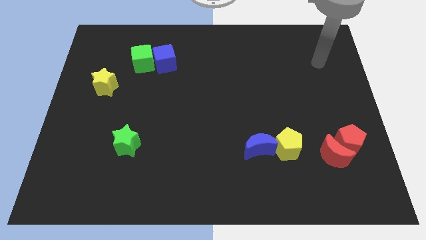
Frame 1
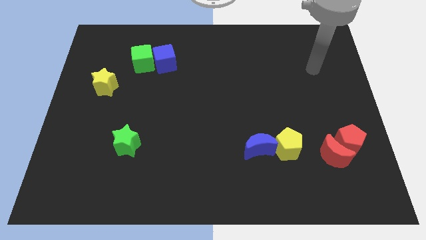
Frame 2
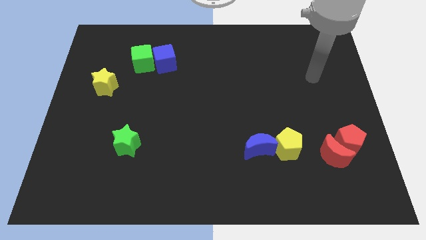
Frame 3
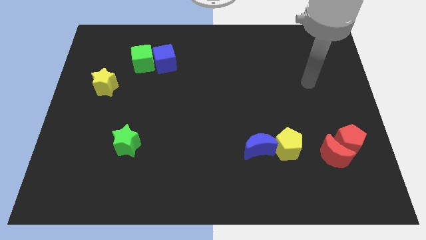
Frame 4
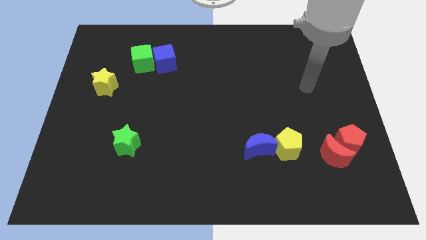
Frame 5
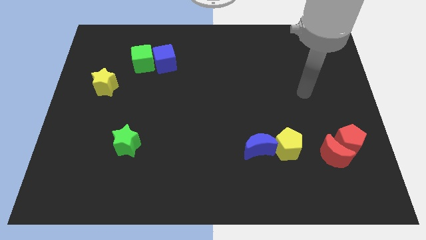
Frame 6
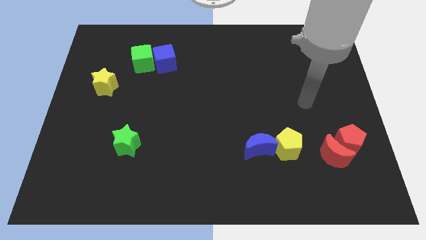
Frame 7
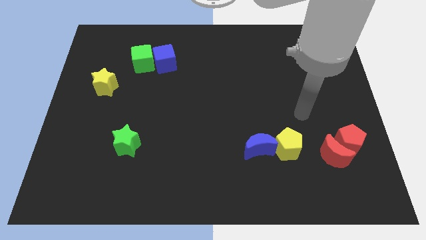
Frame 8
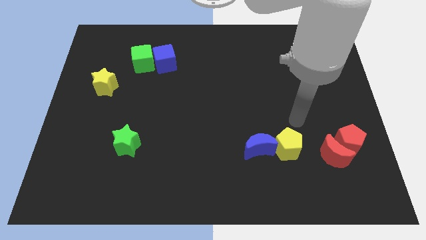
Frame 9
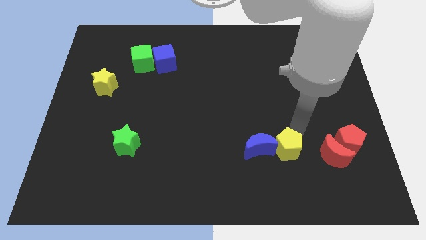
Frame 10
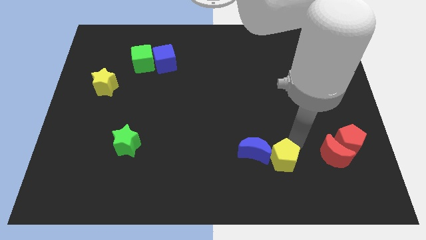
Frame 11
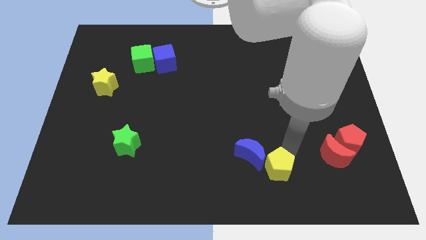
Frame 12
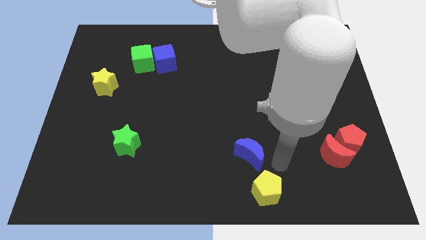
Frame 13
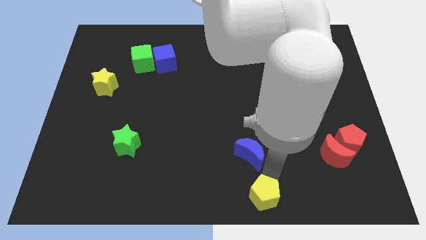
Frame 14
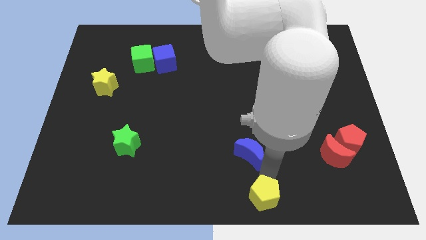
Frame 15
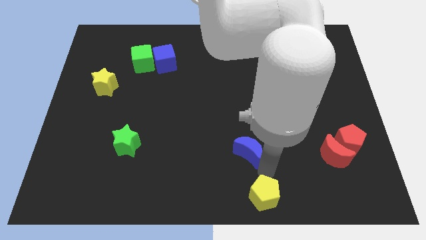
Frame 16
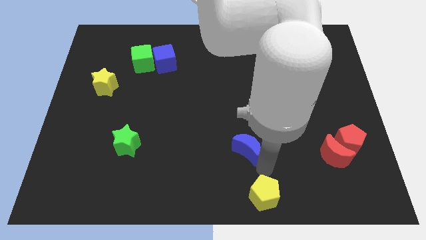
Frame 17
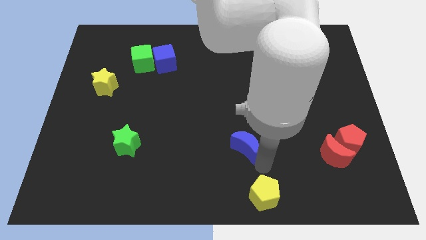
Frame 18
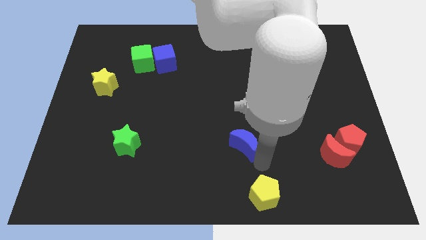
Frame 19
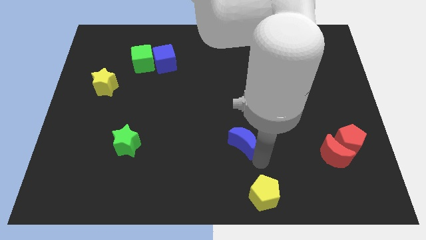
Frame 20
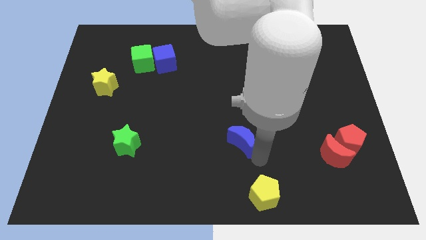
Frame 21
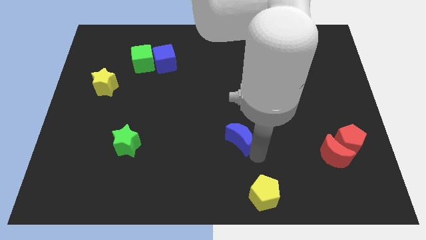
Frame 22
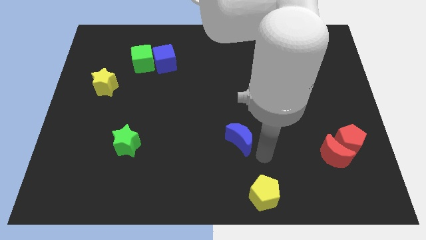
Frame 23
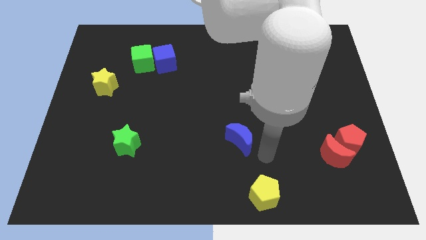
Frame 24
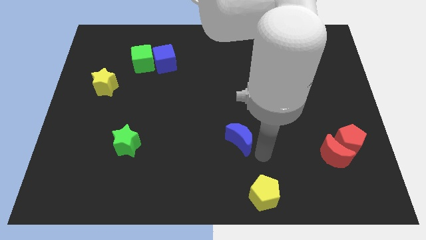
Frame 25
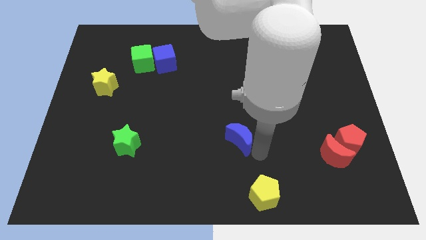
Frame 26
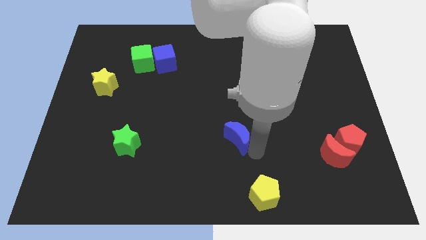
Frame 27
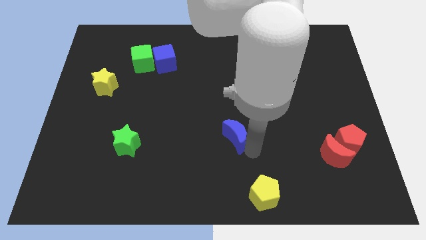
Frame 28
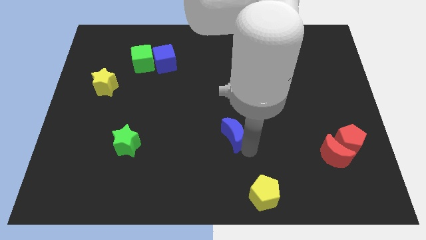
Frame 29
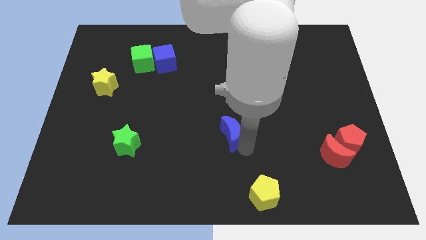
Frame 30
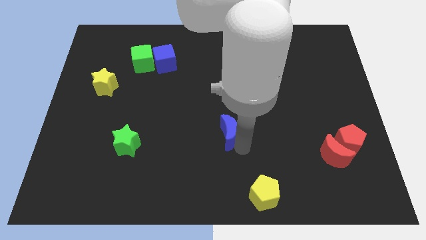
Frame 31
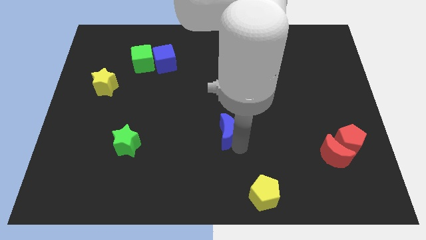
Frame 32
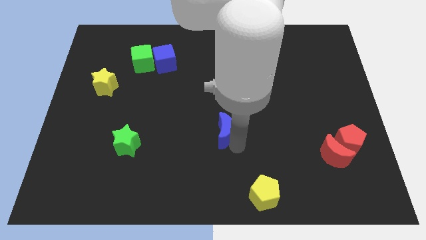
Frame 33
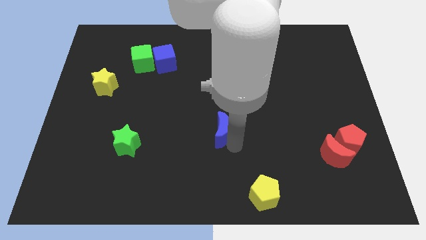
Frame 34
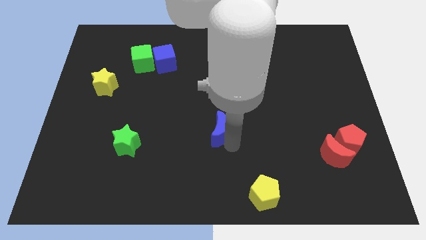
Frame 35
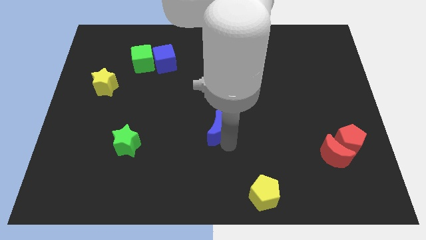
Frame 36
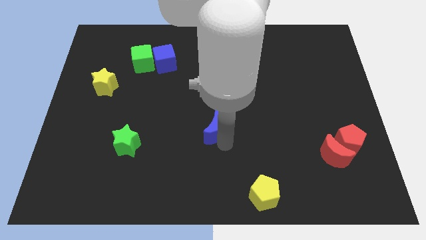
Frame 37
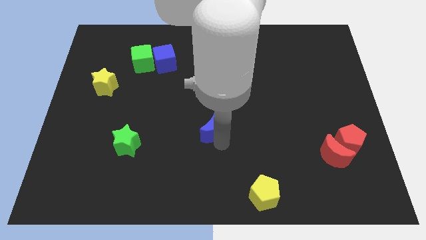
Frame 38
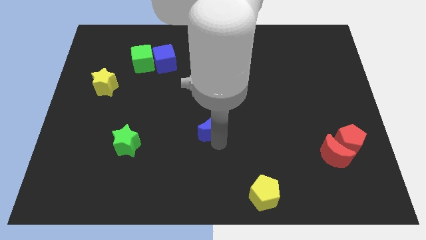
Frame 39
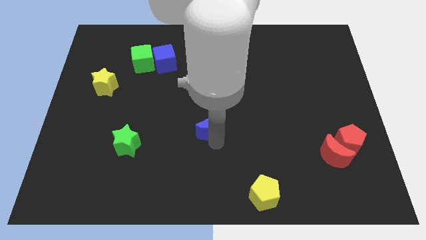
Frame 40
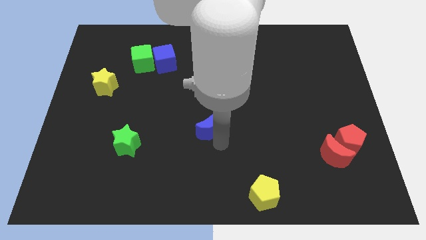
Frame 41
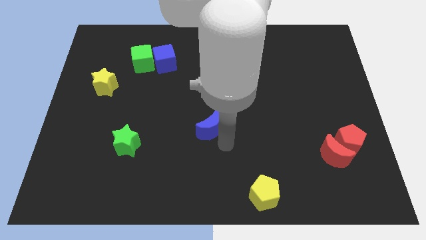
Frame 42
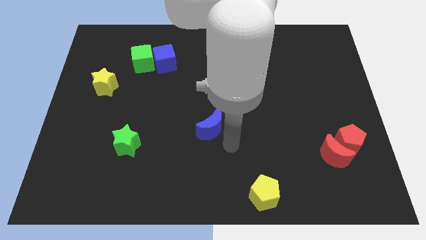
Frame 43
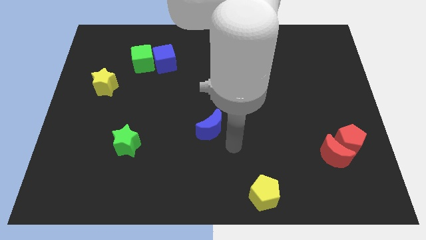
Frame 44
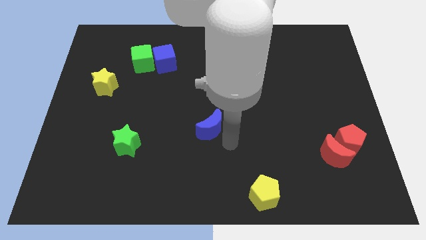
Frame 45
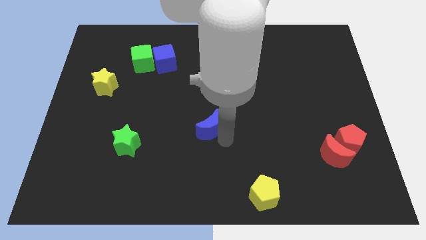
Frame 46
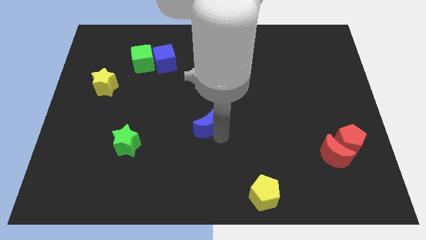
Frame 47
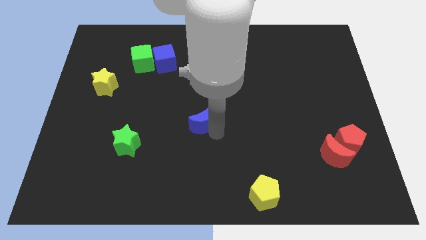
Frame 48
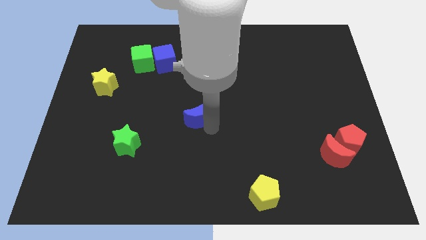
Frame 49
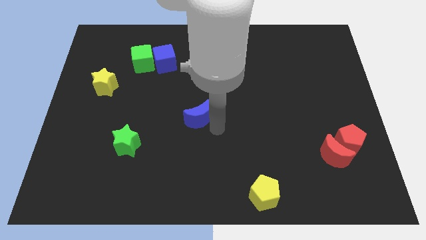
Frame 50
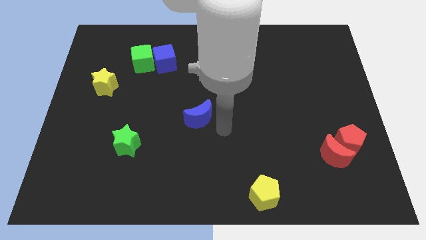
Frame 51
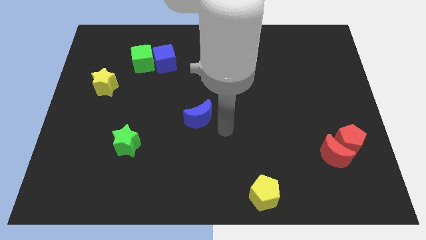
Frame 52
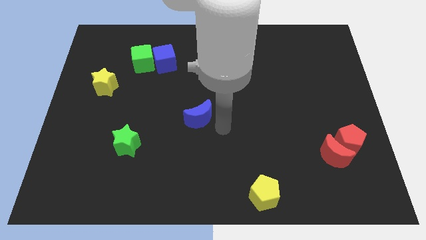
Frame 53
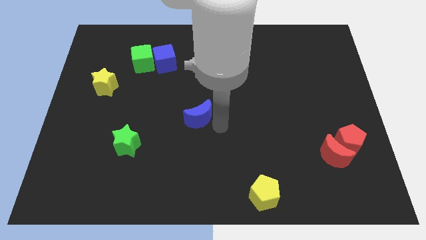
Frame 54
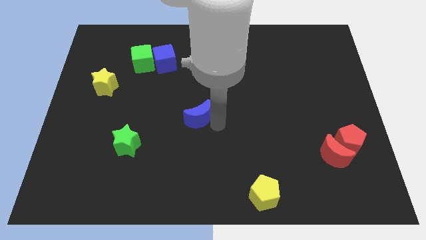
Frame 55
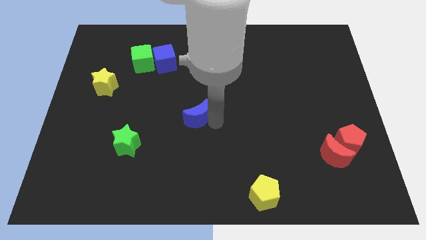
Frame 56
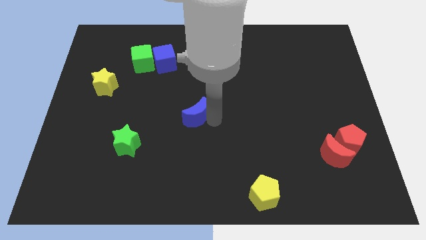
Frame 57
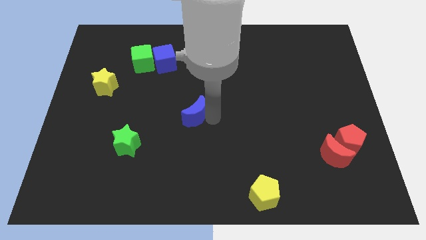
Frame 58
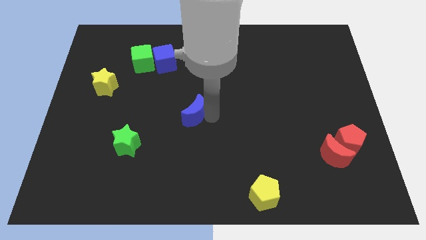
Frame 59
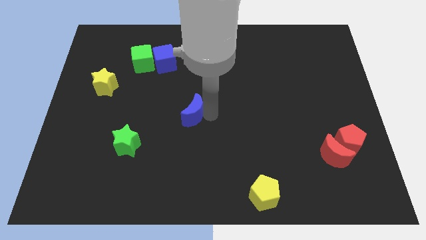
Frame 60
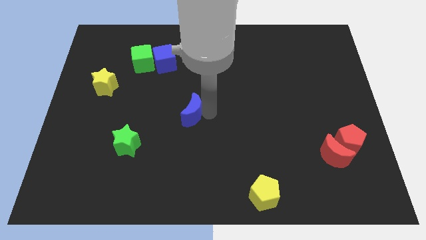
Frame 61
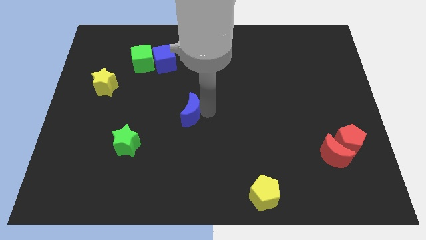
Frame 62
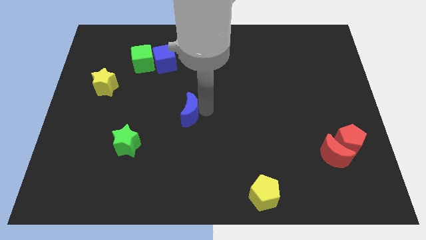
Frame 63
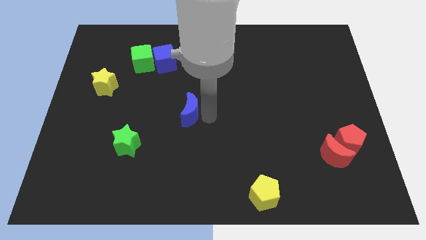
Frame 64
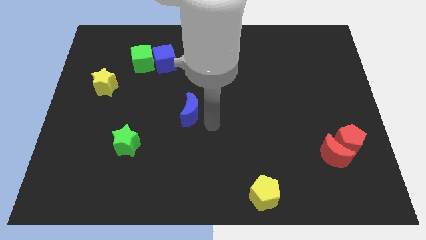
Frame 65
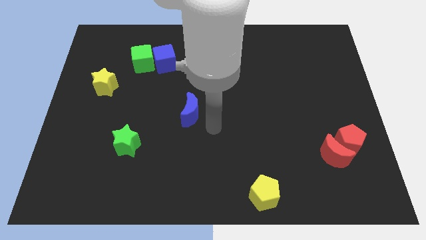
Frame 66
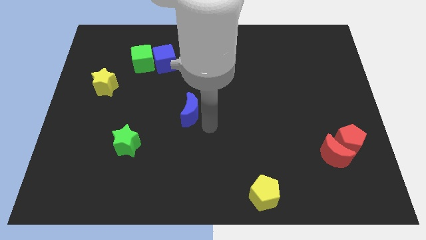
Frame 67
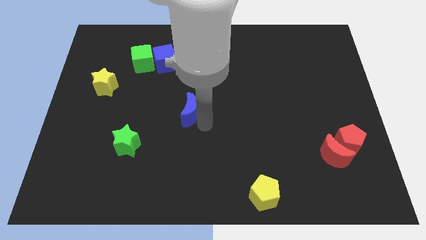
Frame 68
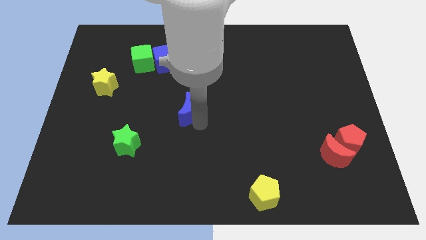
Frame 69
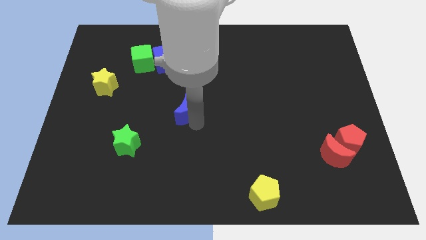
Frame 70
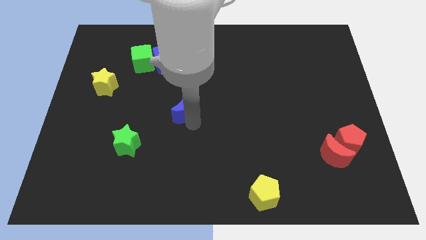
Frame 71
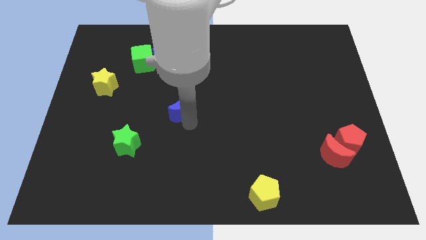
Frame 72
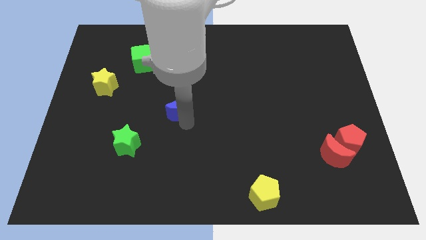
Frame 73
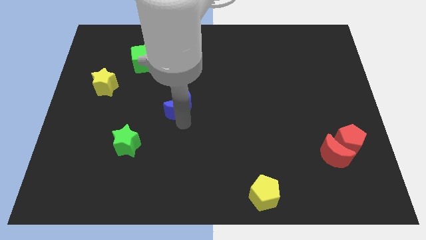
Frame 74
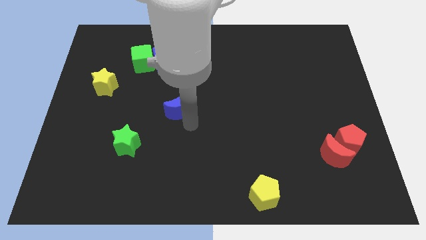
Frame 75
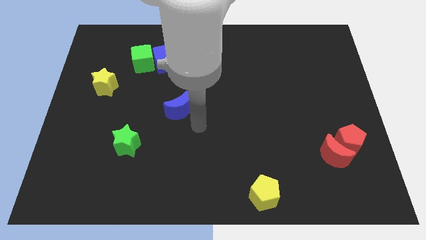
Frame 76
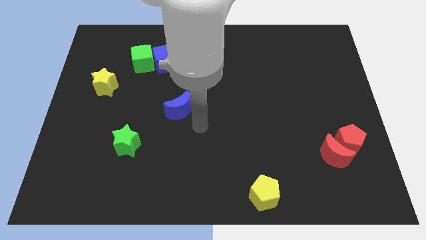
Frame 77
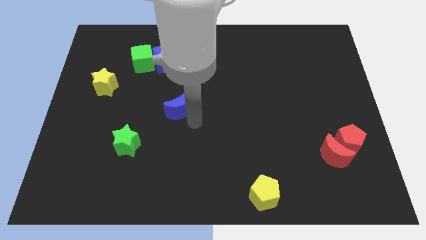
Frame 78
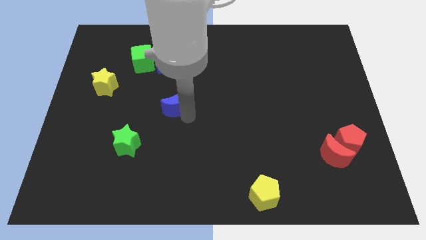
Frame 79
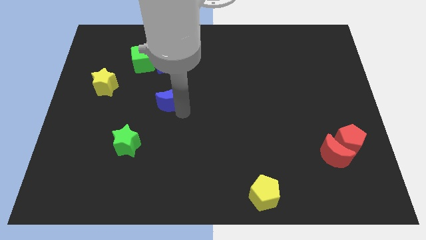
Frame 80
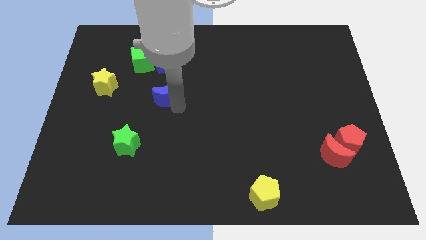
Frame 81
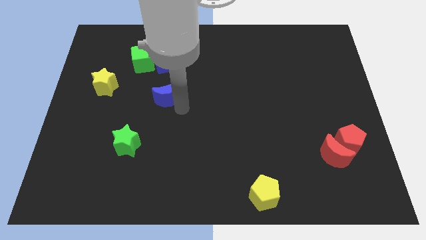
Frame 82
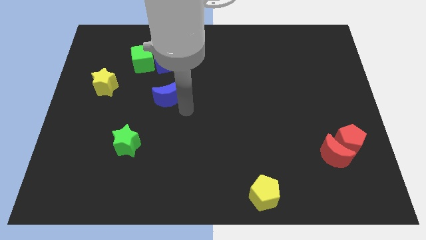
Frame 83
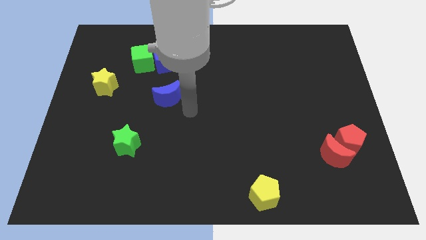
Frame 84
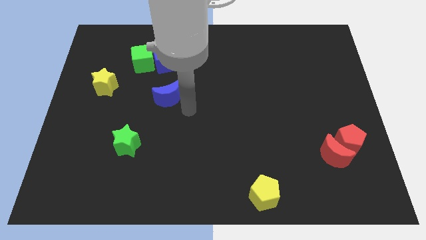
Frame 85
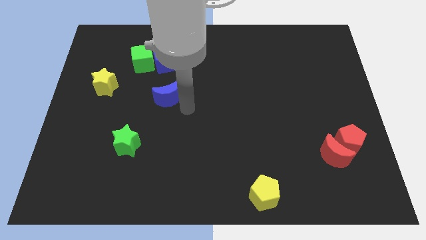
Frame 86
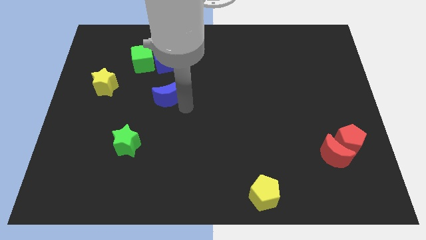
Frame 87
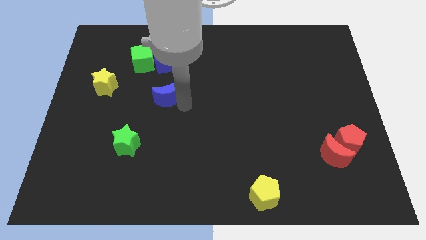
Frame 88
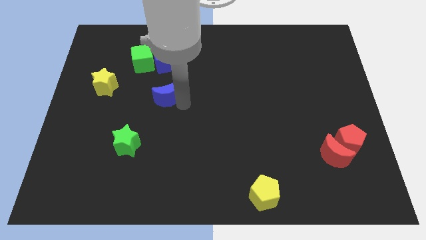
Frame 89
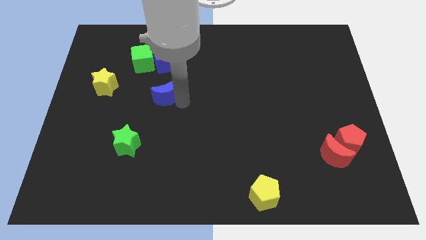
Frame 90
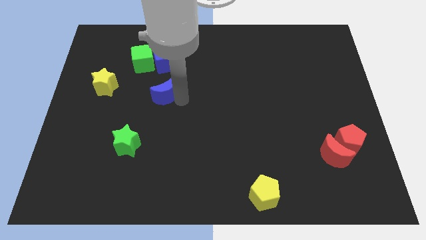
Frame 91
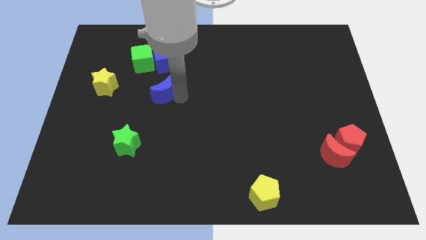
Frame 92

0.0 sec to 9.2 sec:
move the blue moon right of the yellow star
